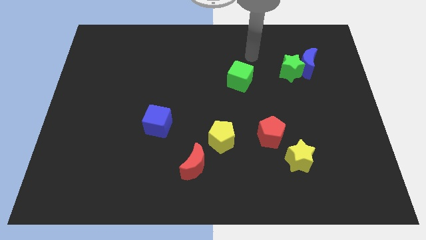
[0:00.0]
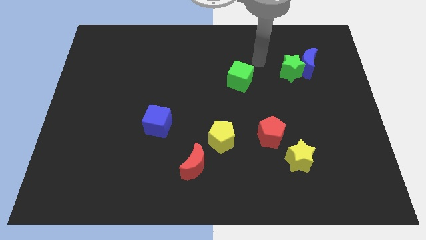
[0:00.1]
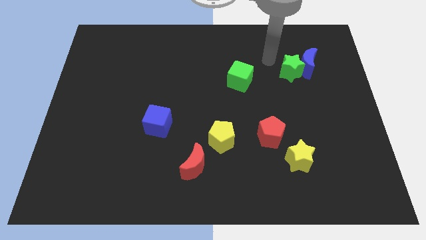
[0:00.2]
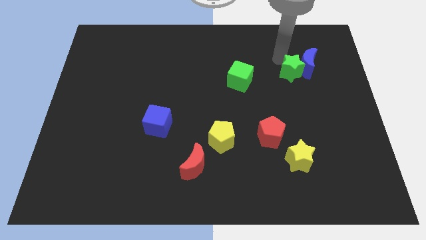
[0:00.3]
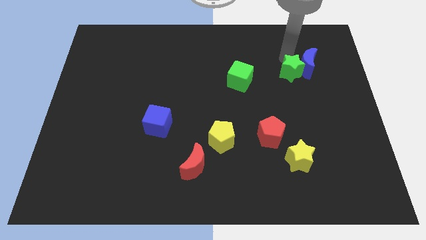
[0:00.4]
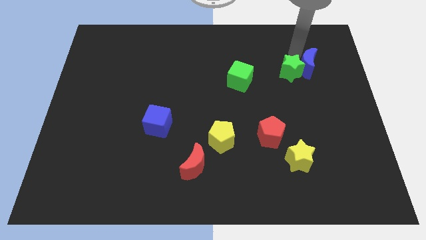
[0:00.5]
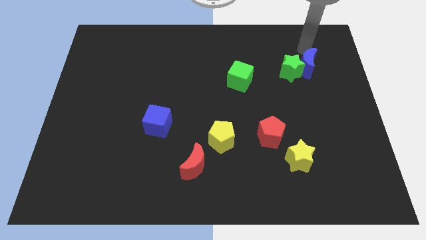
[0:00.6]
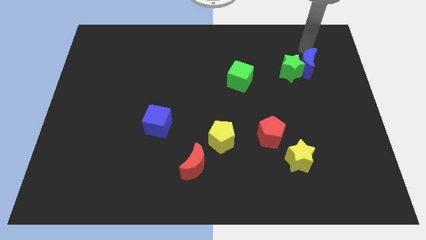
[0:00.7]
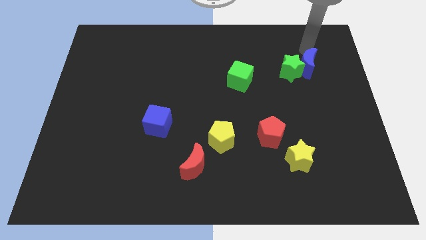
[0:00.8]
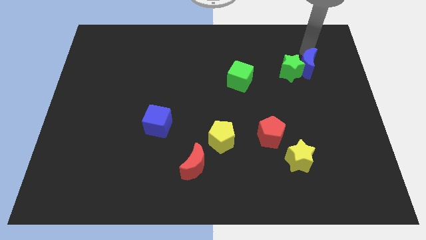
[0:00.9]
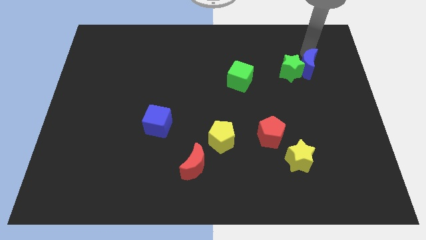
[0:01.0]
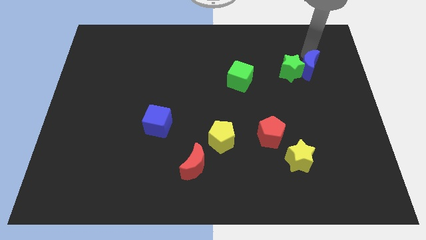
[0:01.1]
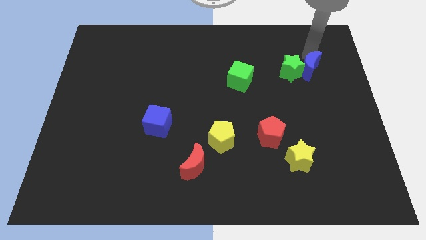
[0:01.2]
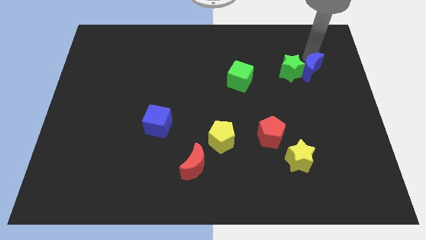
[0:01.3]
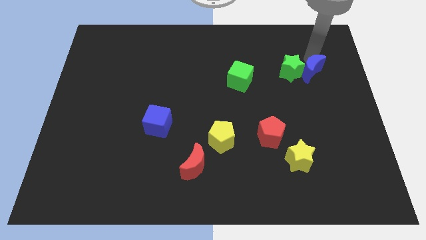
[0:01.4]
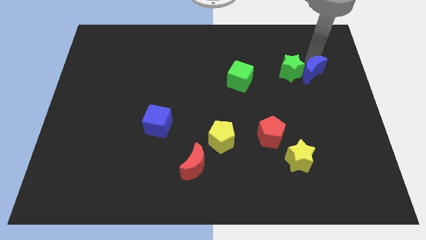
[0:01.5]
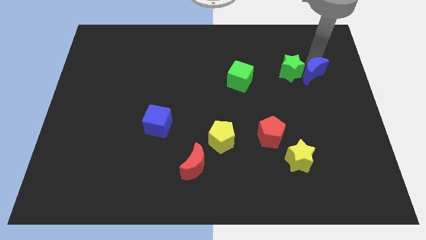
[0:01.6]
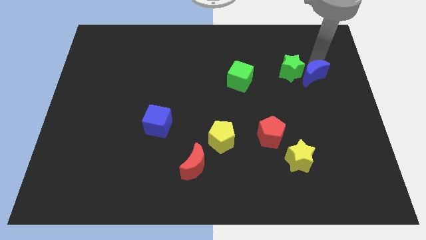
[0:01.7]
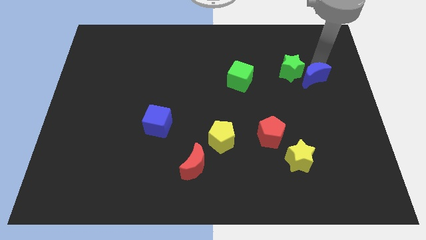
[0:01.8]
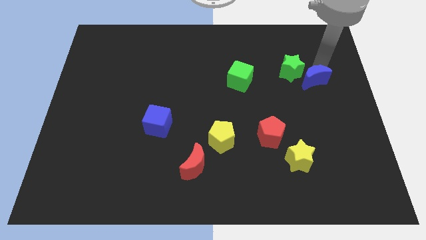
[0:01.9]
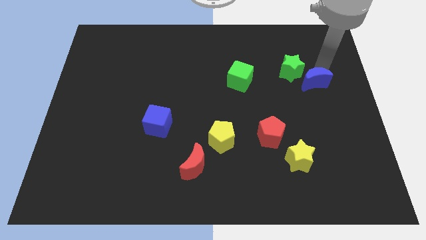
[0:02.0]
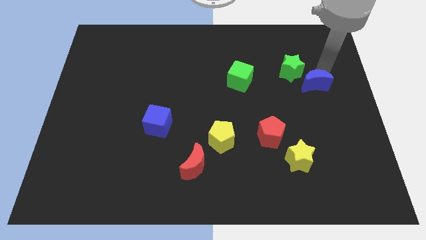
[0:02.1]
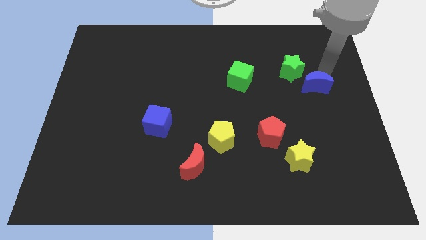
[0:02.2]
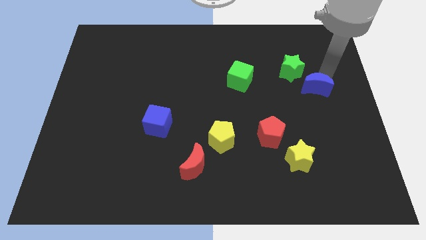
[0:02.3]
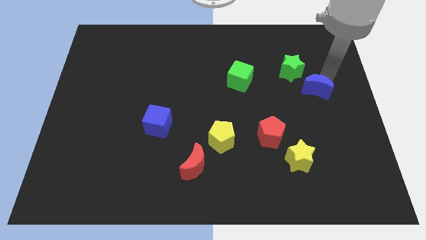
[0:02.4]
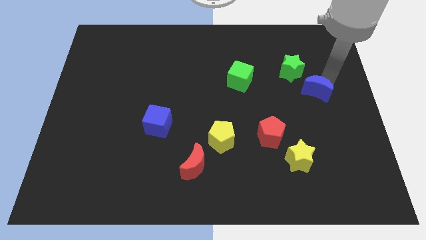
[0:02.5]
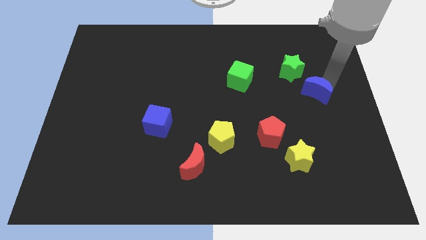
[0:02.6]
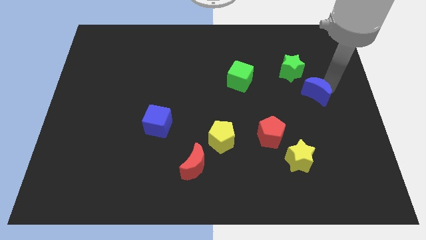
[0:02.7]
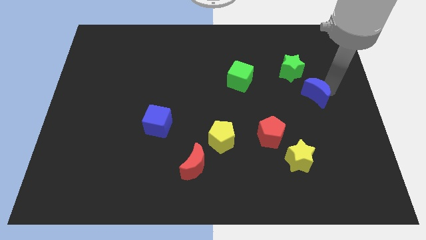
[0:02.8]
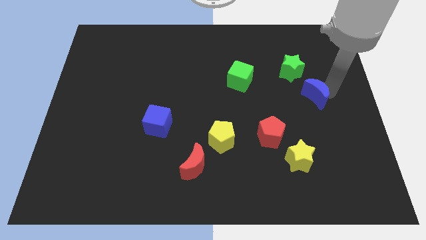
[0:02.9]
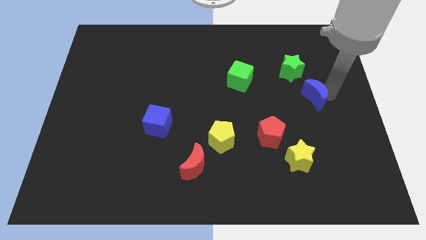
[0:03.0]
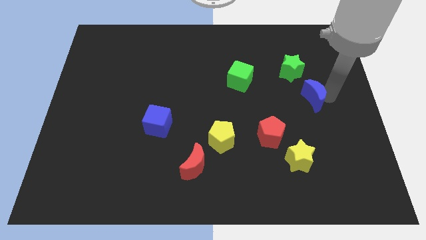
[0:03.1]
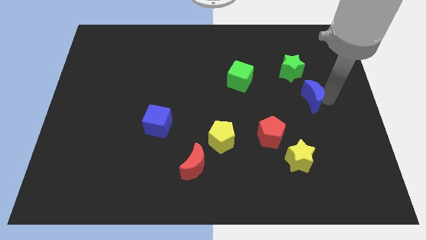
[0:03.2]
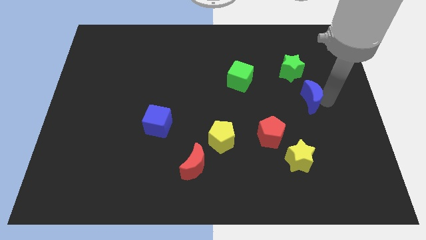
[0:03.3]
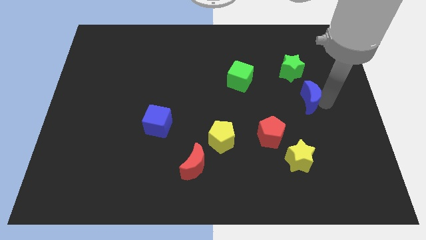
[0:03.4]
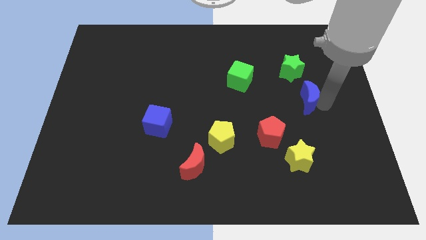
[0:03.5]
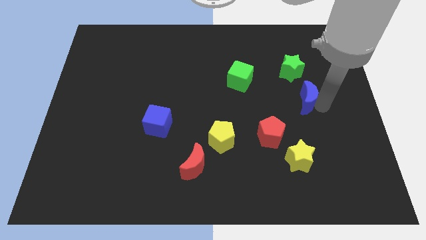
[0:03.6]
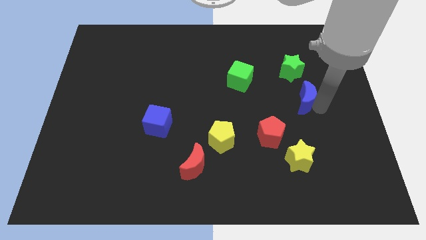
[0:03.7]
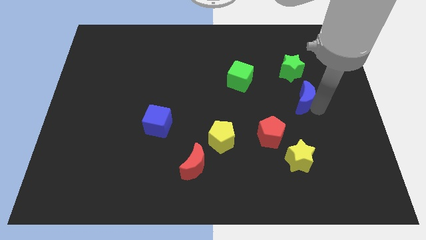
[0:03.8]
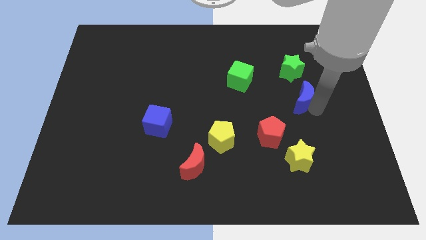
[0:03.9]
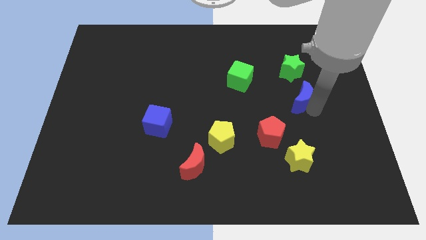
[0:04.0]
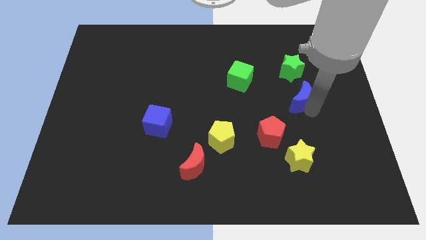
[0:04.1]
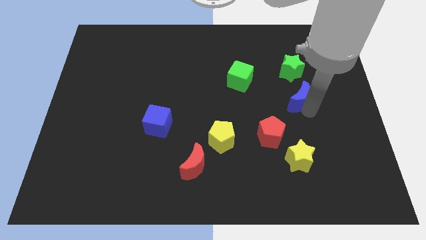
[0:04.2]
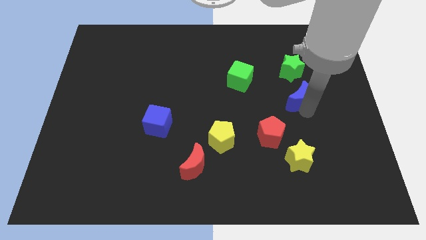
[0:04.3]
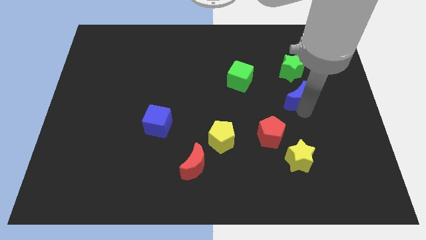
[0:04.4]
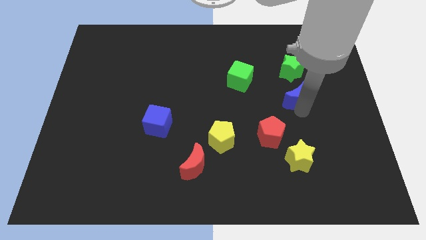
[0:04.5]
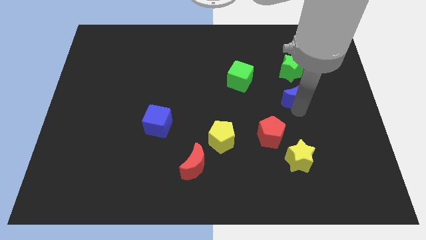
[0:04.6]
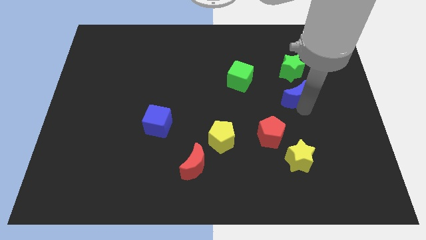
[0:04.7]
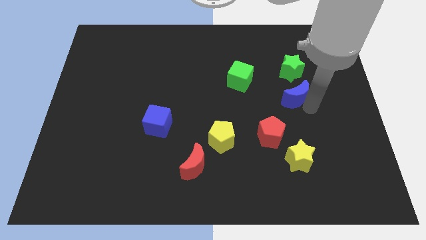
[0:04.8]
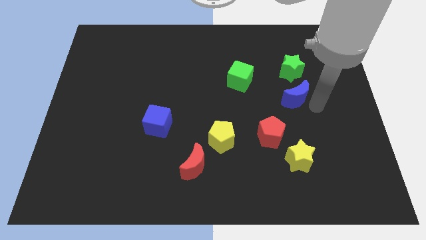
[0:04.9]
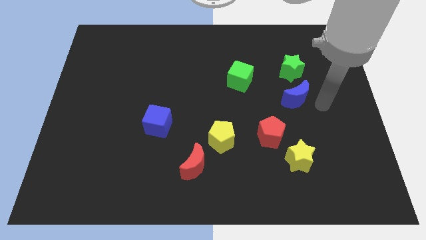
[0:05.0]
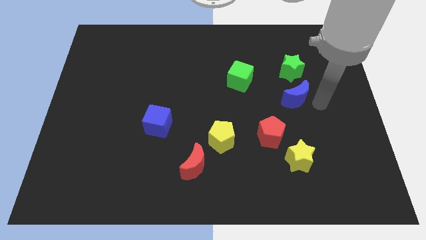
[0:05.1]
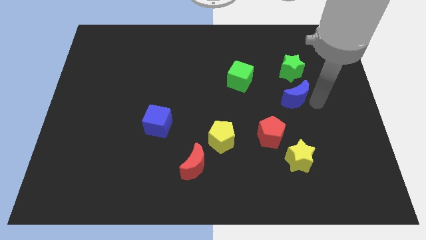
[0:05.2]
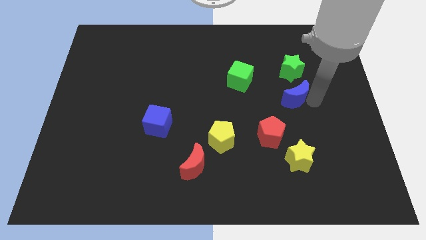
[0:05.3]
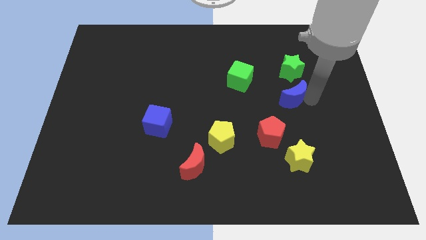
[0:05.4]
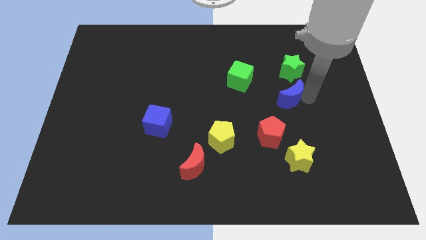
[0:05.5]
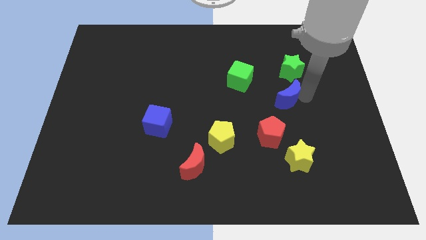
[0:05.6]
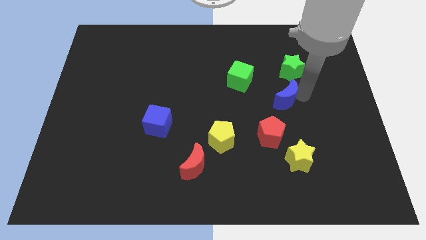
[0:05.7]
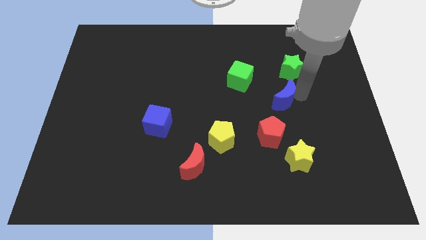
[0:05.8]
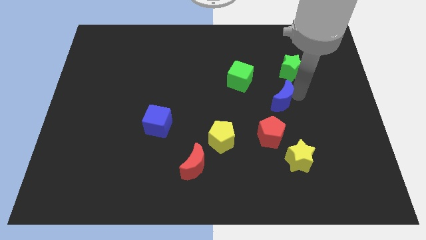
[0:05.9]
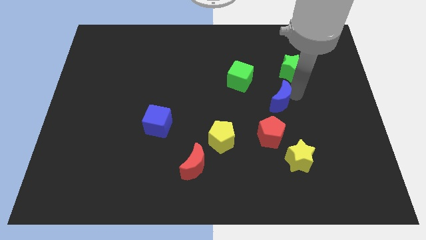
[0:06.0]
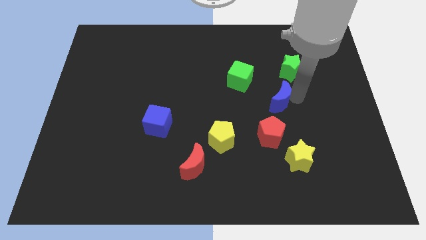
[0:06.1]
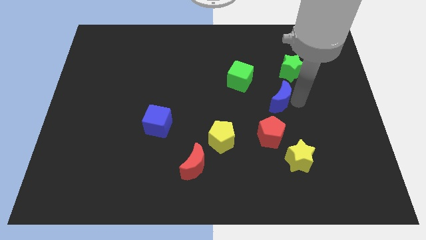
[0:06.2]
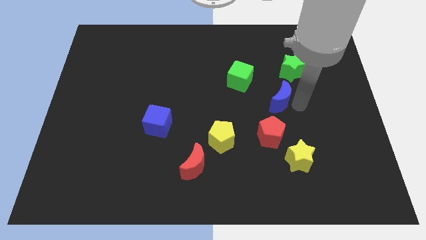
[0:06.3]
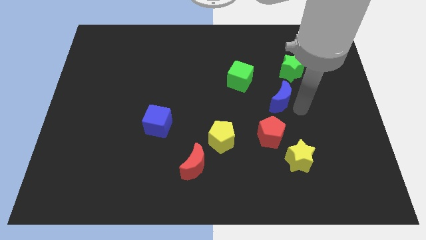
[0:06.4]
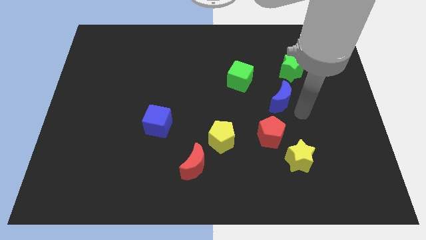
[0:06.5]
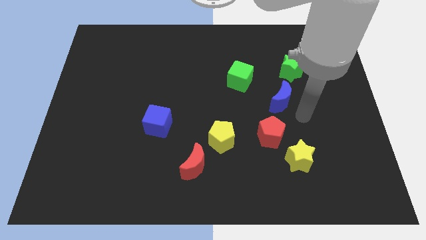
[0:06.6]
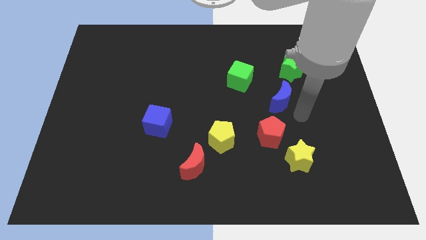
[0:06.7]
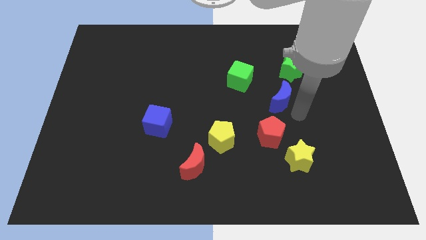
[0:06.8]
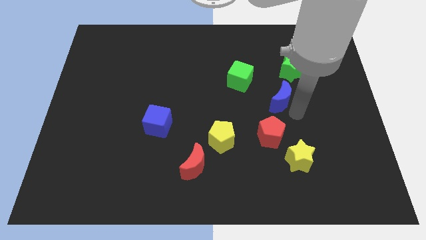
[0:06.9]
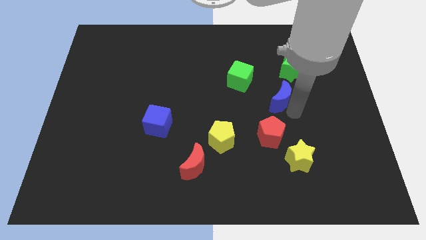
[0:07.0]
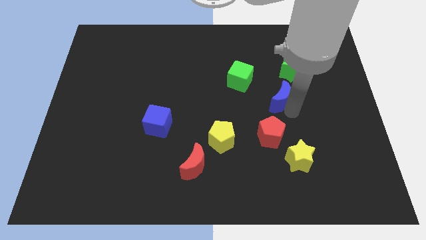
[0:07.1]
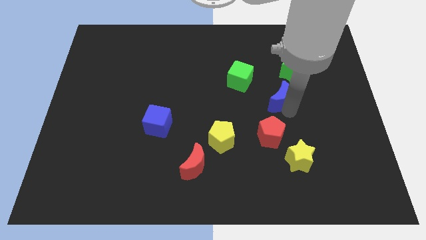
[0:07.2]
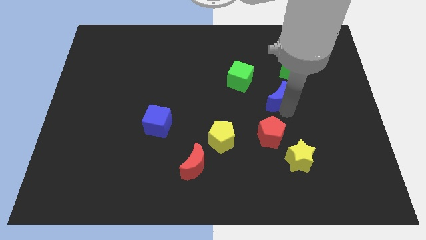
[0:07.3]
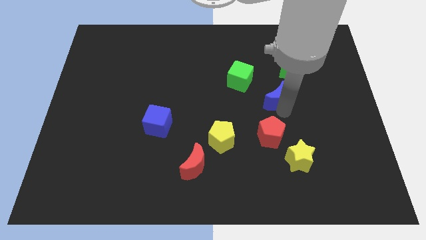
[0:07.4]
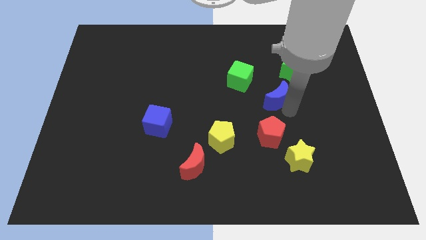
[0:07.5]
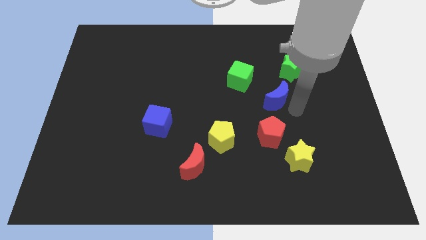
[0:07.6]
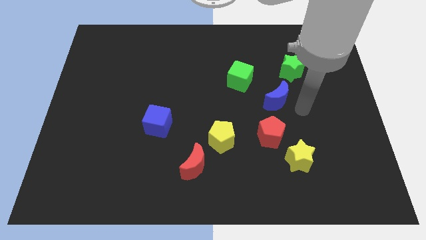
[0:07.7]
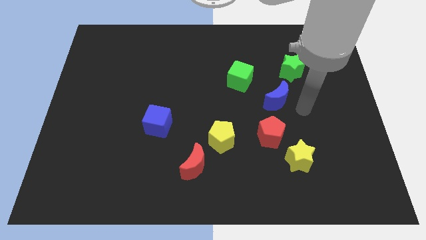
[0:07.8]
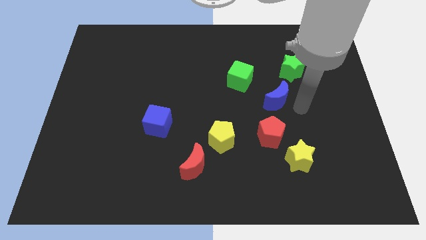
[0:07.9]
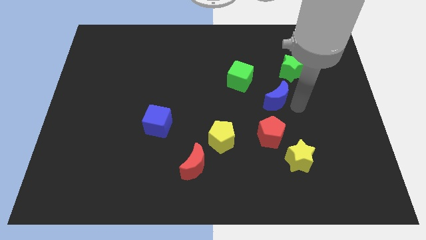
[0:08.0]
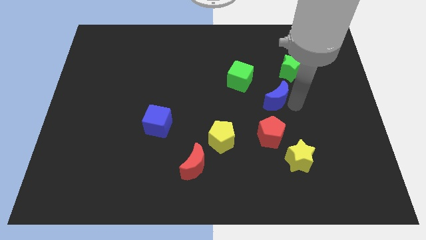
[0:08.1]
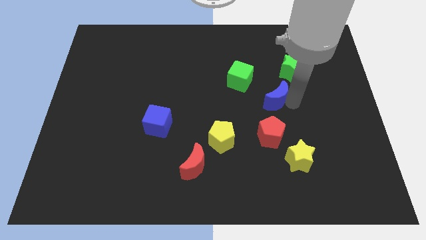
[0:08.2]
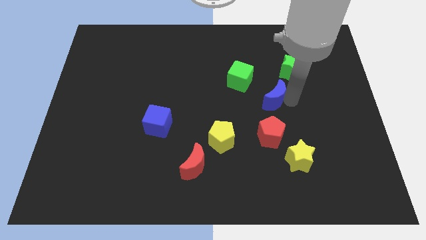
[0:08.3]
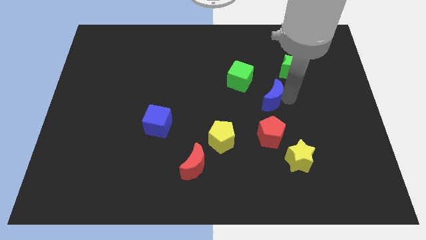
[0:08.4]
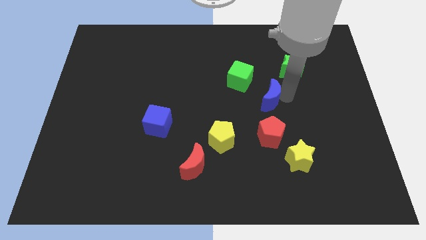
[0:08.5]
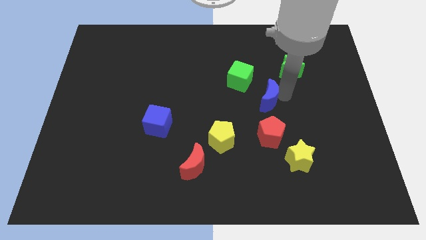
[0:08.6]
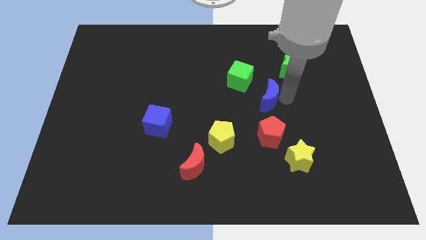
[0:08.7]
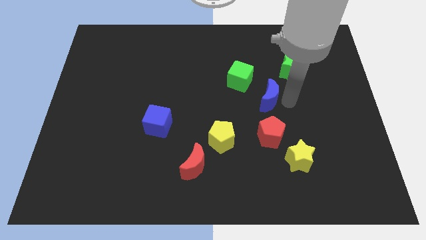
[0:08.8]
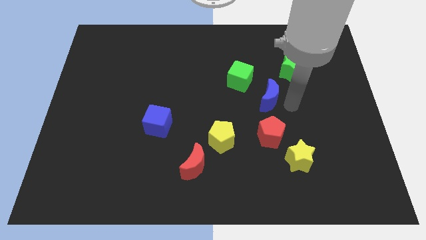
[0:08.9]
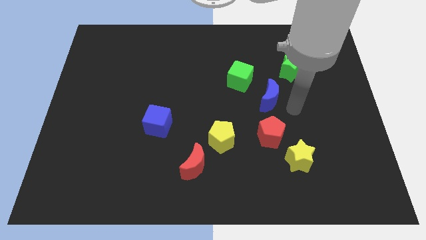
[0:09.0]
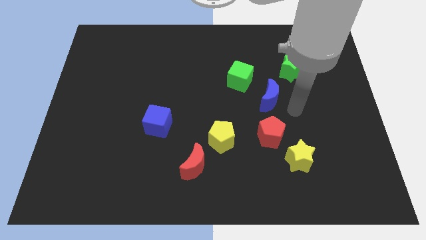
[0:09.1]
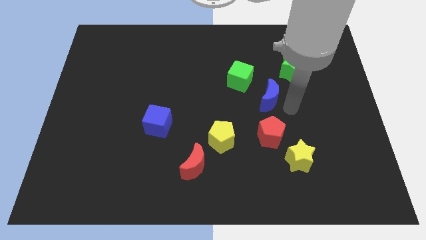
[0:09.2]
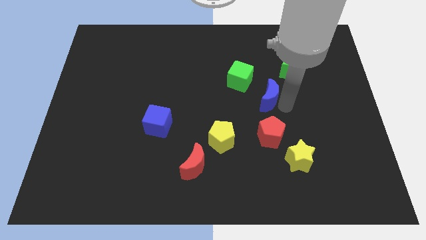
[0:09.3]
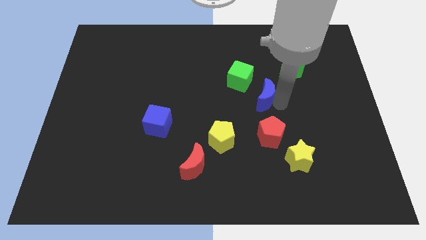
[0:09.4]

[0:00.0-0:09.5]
push the blue moon to the center of the board
